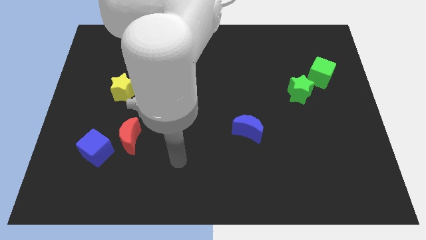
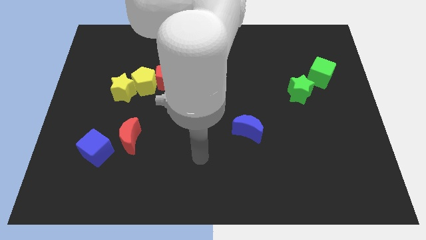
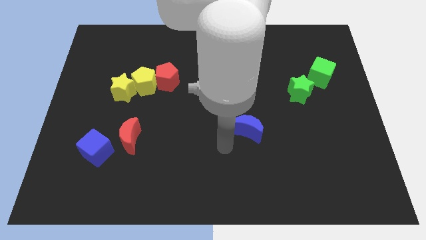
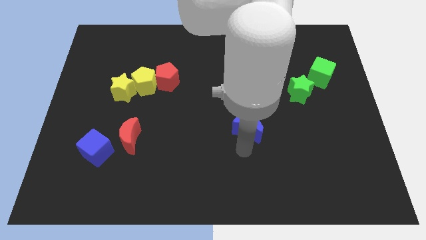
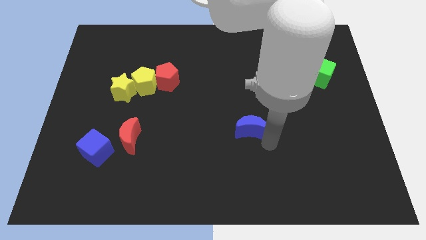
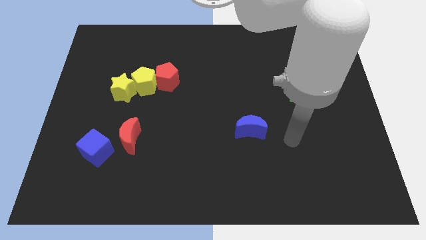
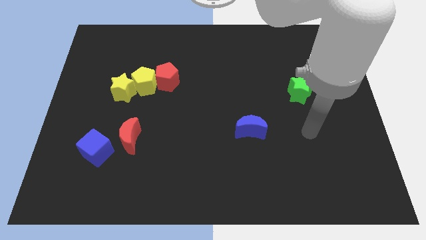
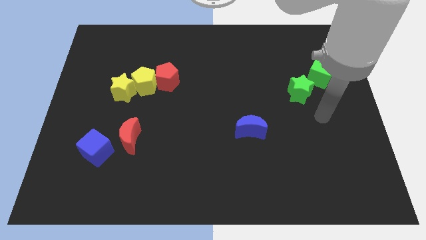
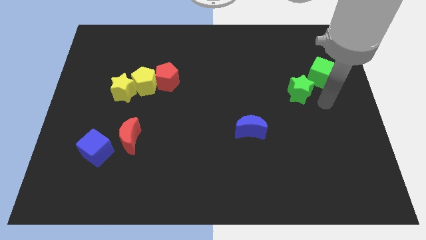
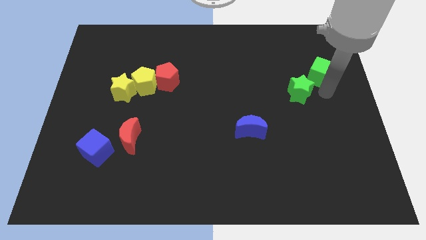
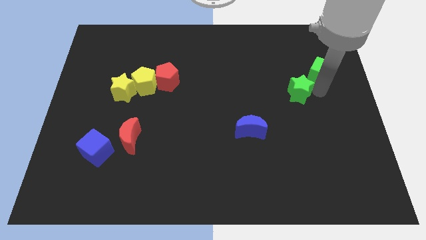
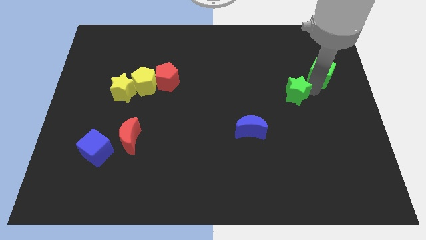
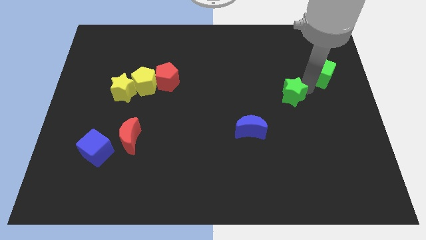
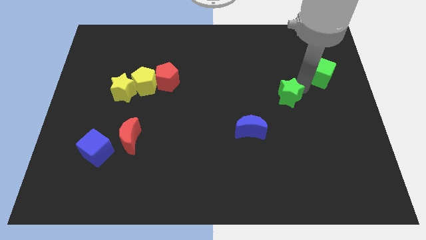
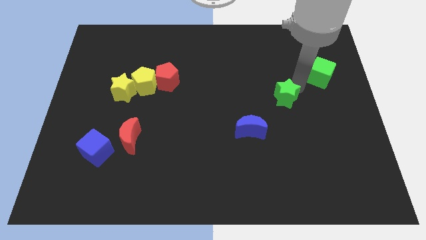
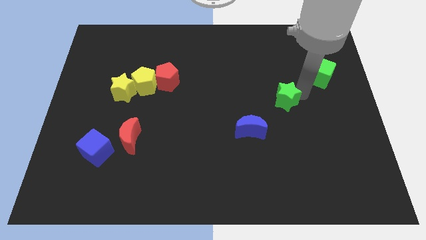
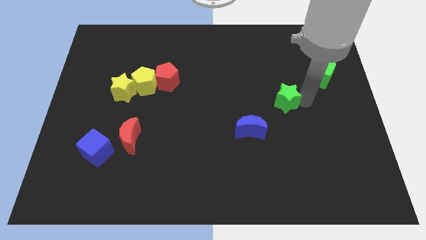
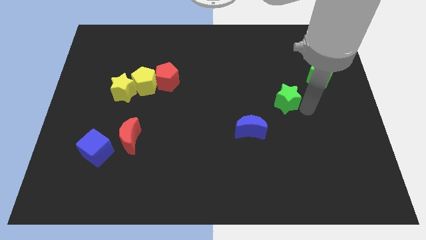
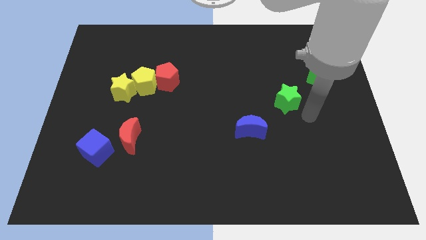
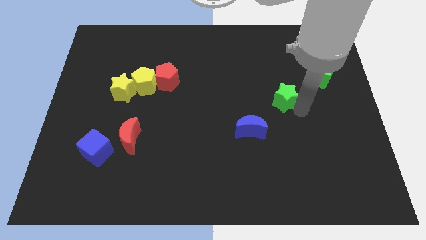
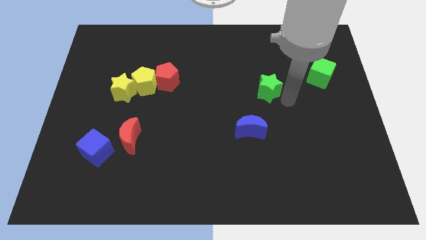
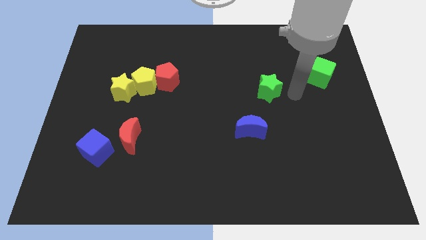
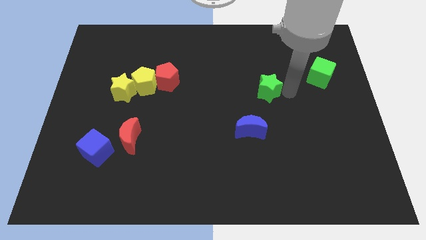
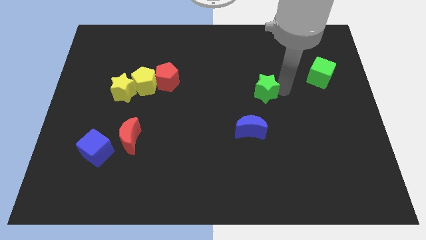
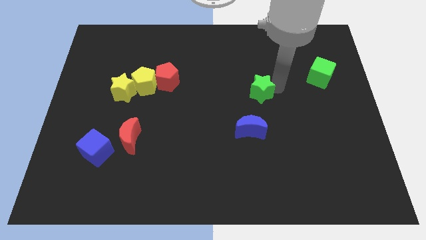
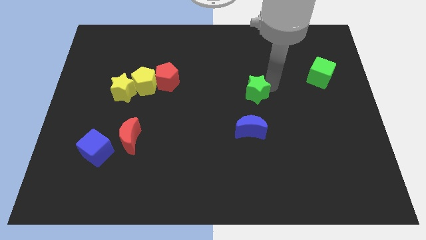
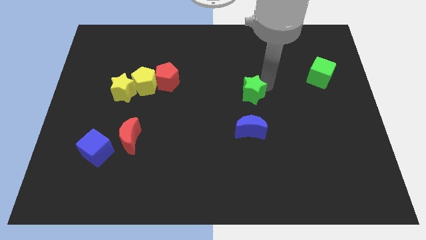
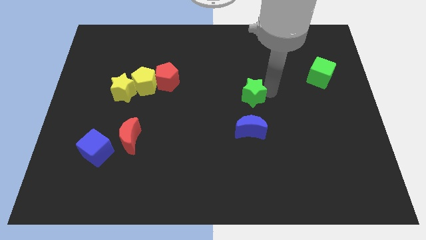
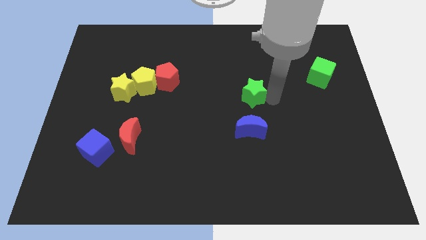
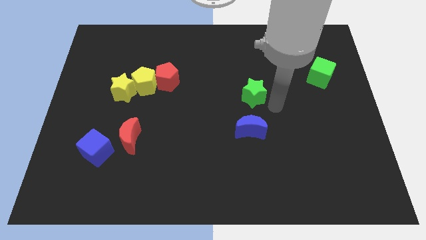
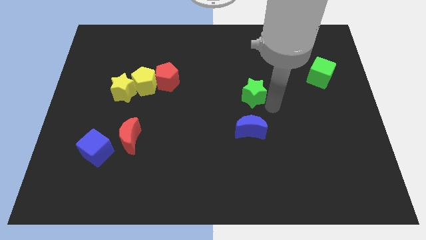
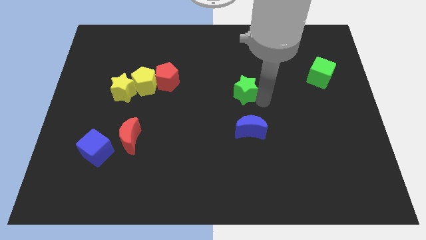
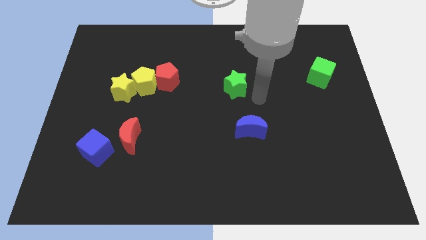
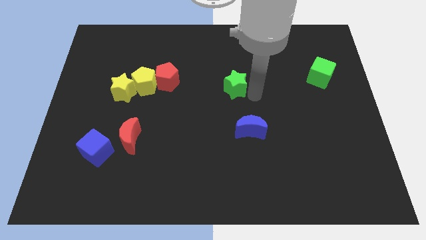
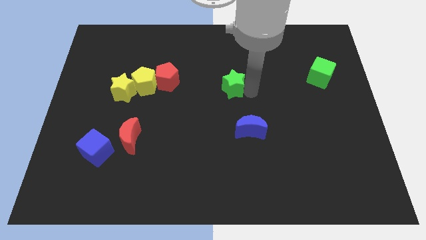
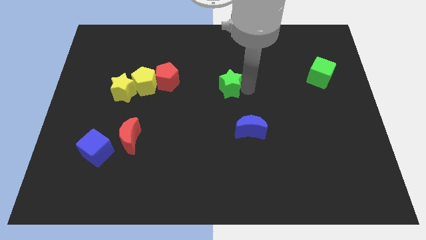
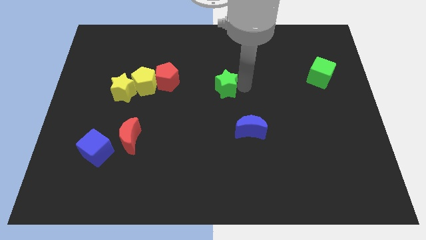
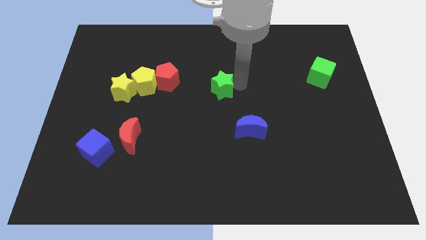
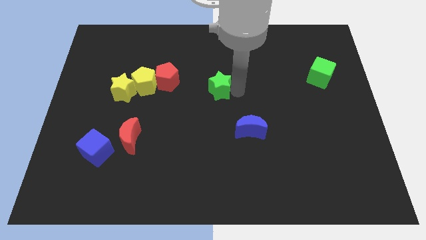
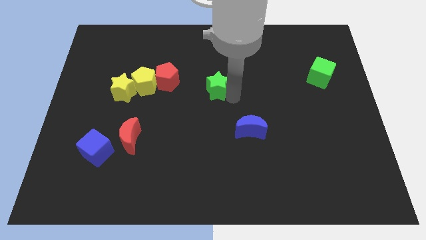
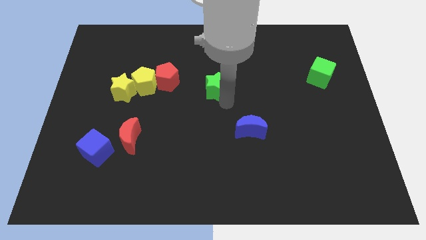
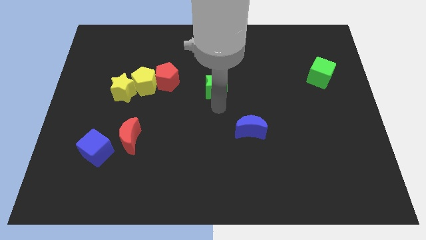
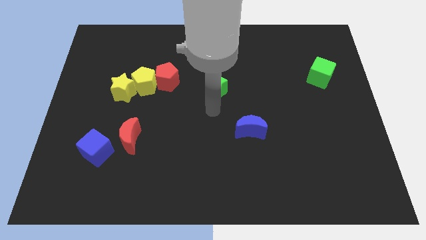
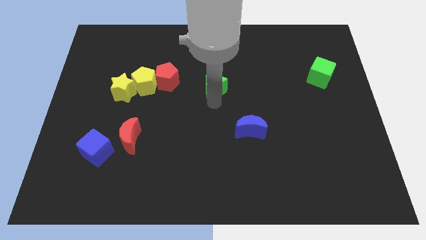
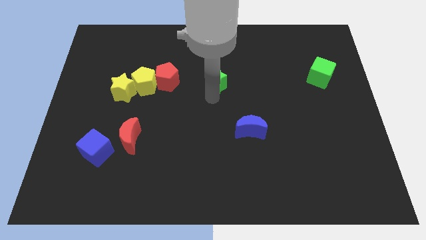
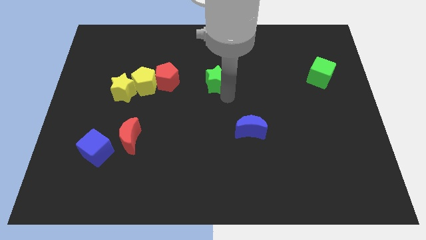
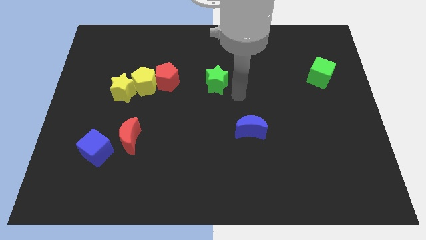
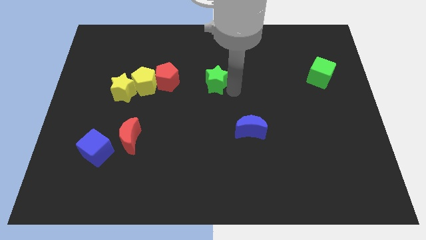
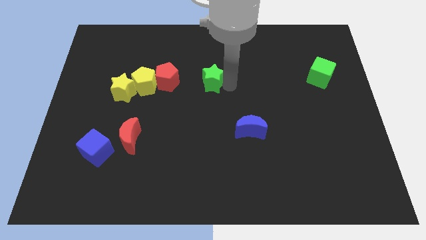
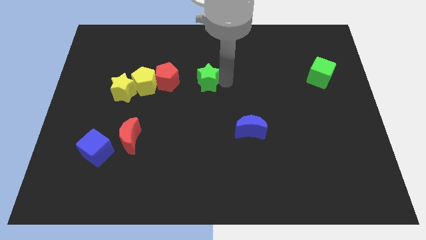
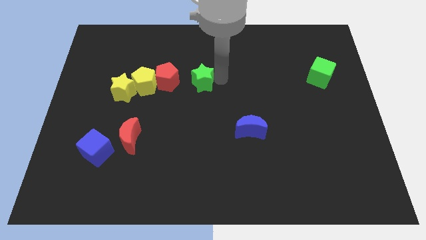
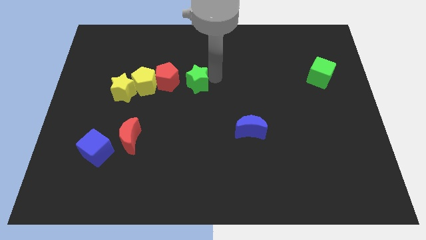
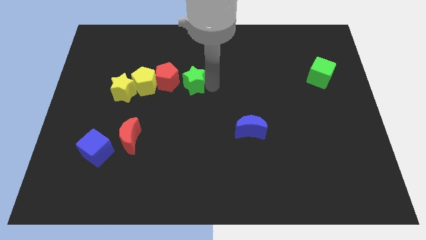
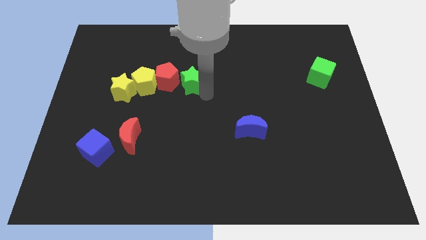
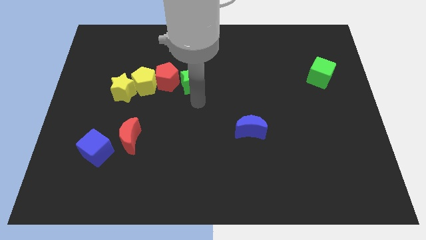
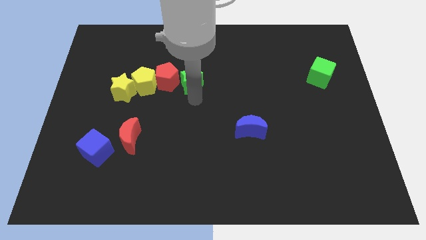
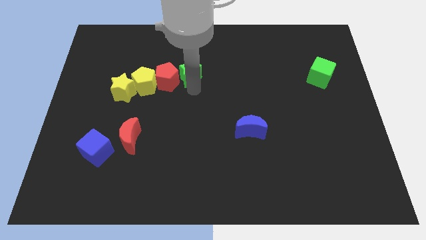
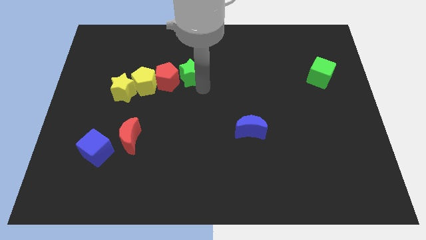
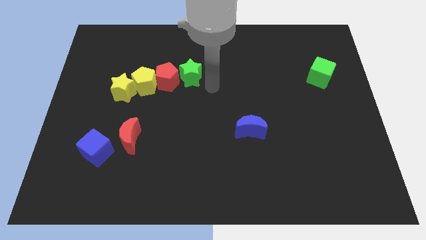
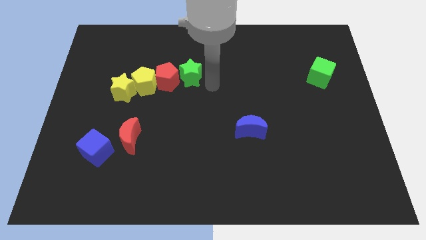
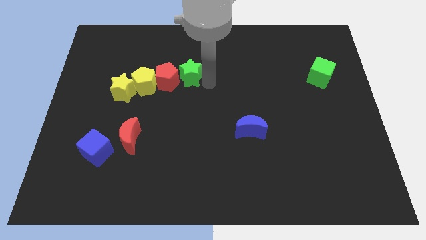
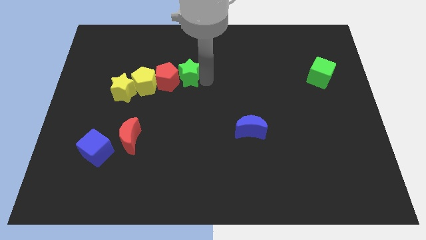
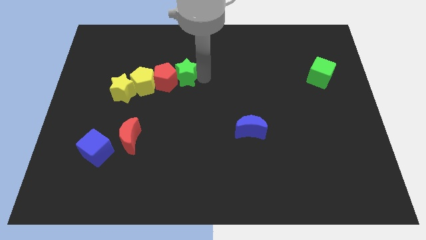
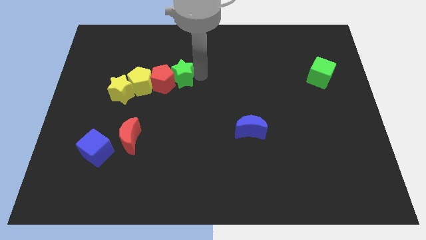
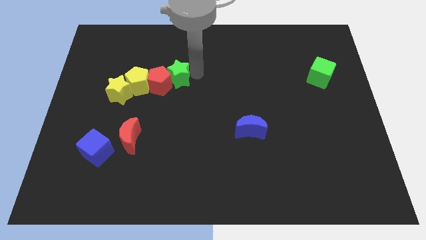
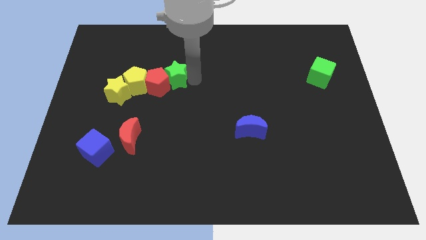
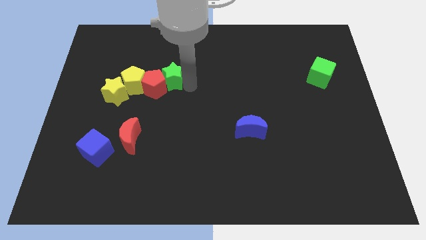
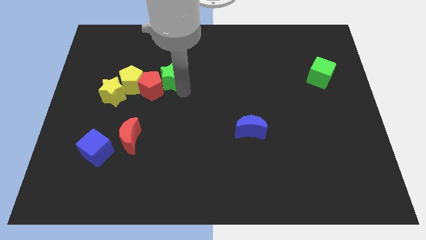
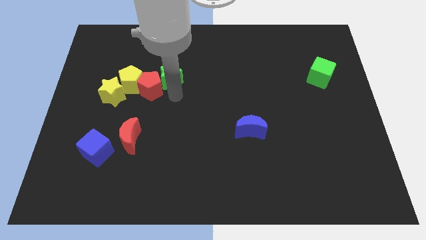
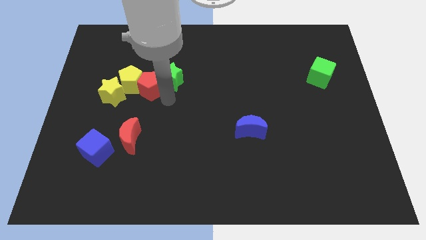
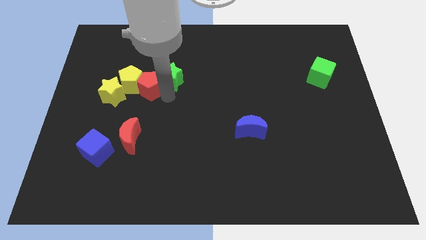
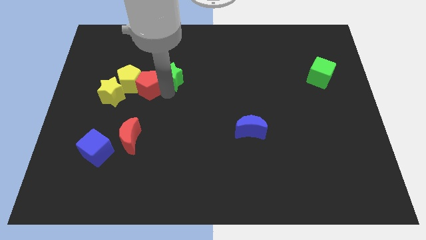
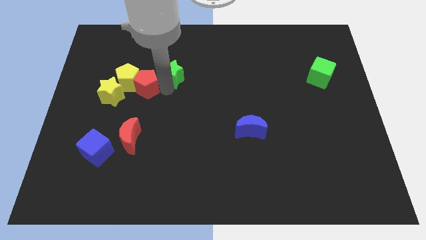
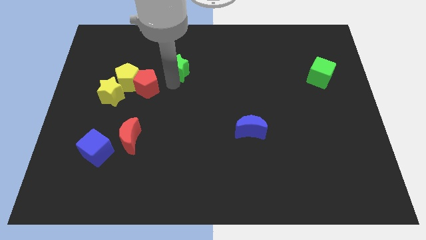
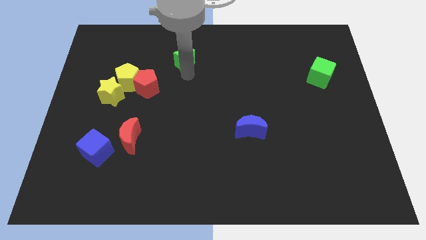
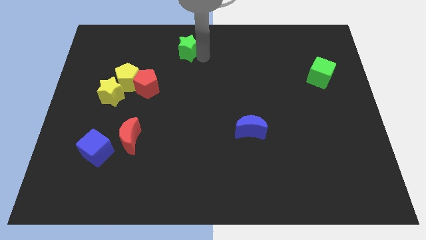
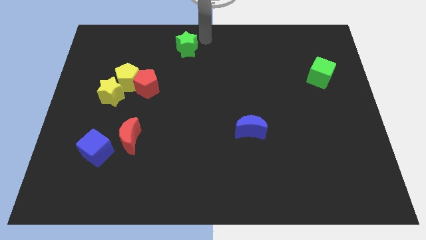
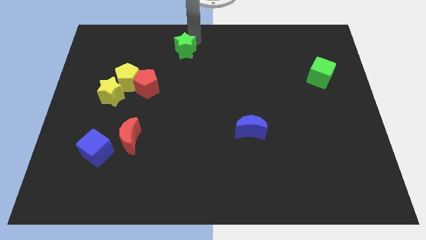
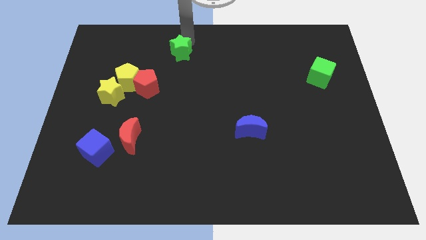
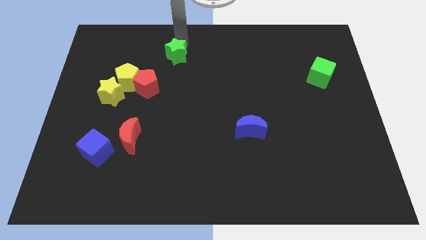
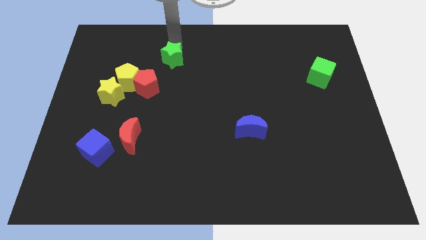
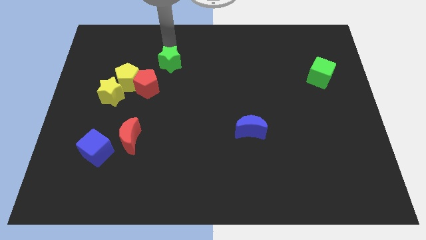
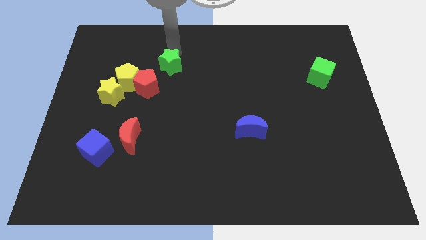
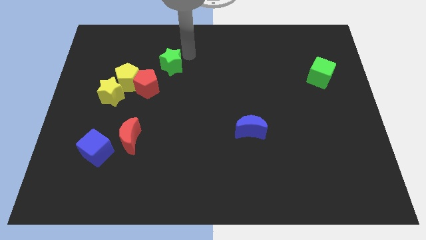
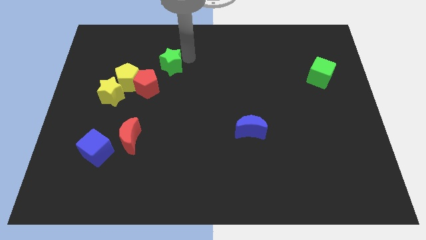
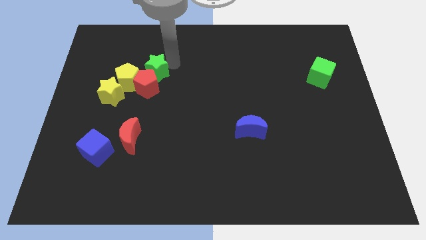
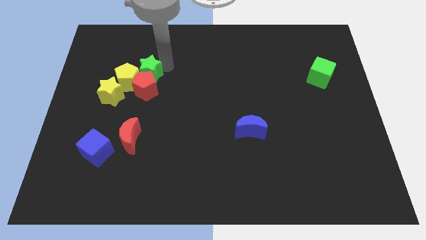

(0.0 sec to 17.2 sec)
slide the green star to the top right of the yellow star
